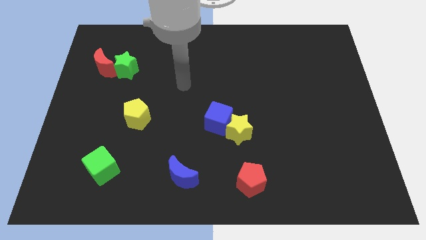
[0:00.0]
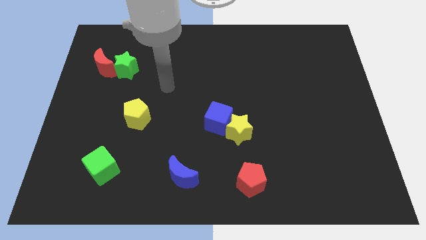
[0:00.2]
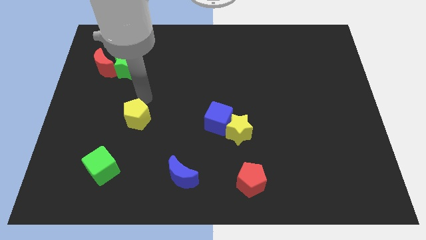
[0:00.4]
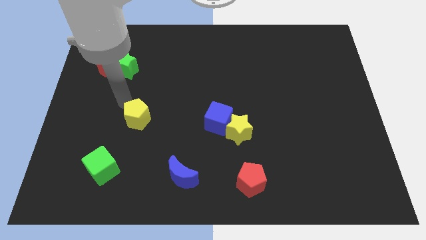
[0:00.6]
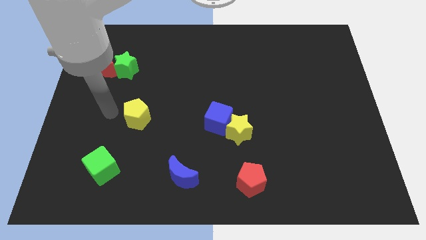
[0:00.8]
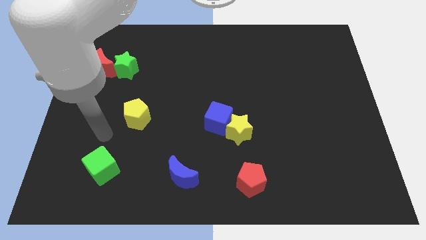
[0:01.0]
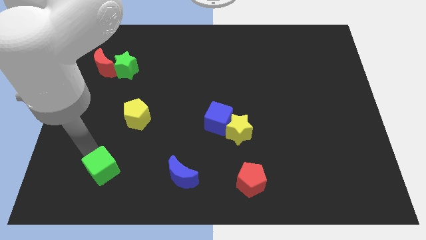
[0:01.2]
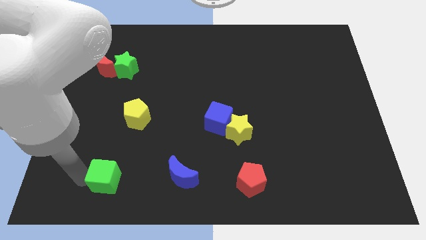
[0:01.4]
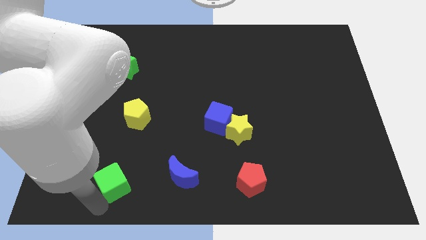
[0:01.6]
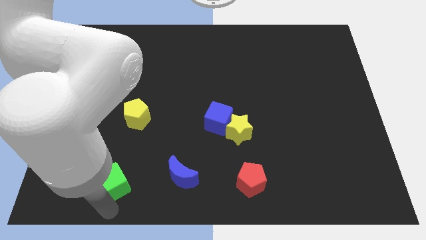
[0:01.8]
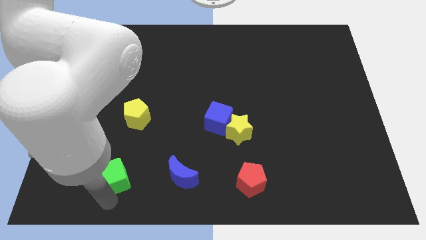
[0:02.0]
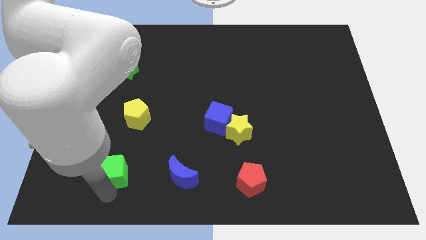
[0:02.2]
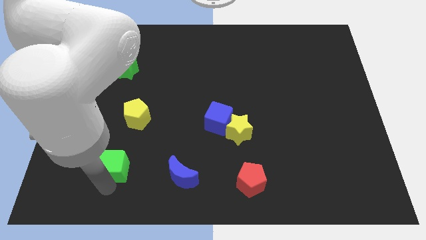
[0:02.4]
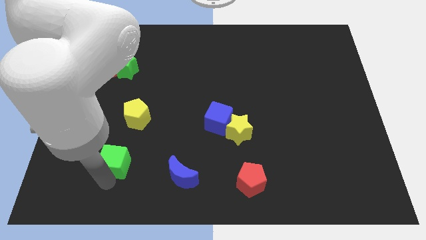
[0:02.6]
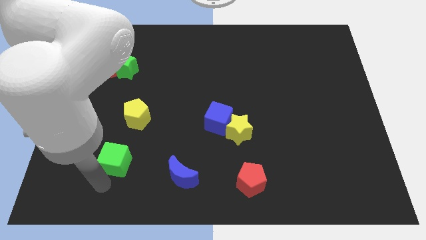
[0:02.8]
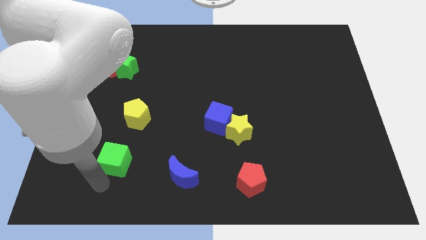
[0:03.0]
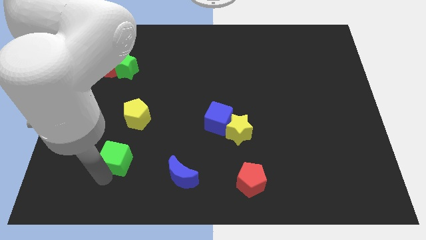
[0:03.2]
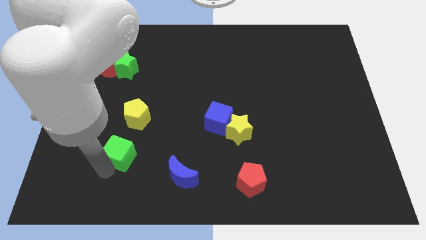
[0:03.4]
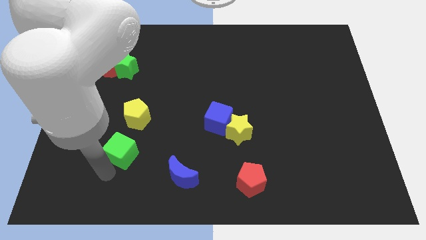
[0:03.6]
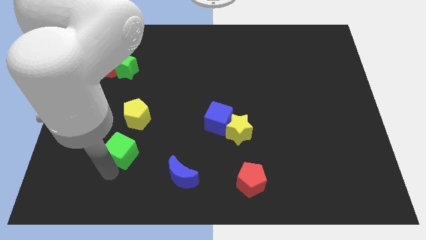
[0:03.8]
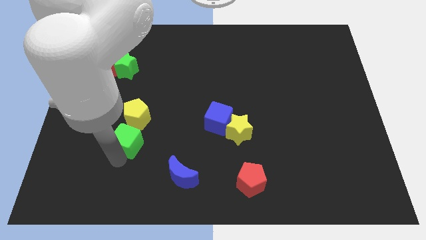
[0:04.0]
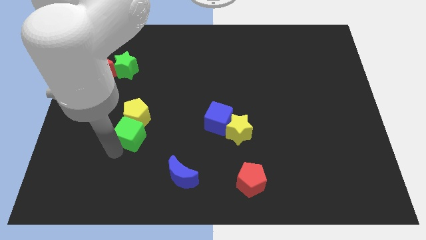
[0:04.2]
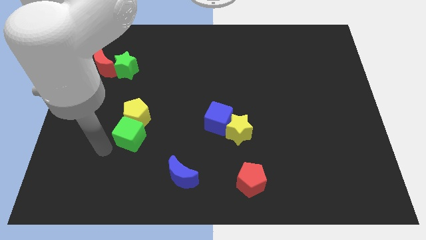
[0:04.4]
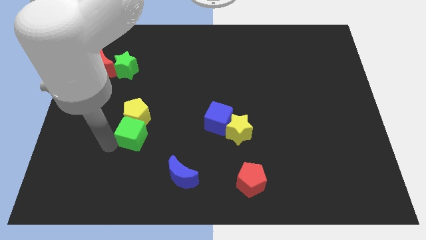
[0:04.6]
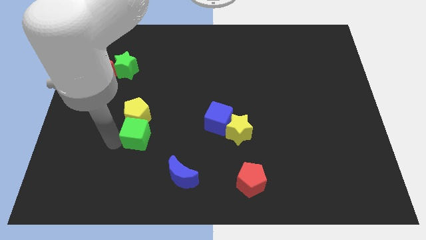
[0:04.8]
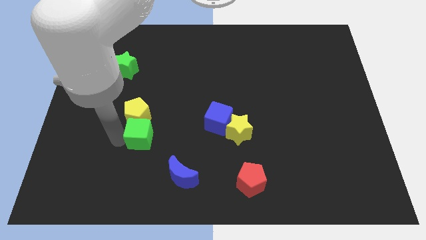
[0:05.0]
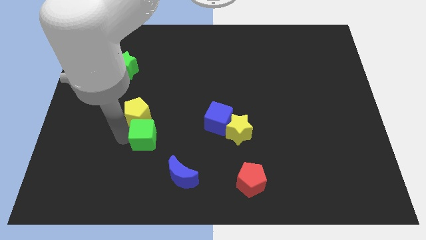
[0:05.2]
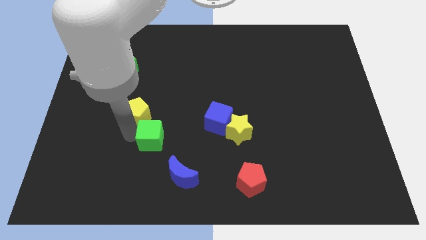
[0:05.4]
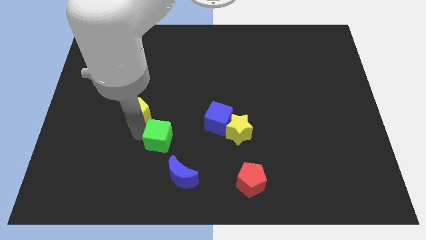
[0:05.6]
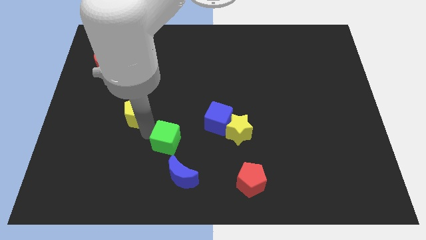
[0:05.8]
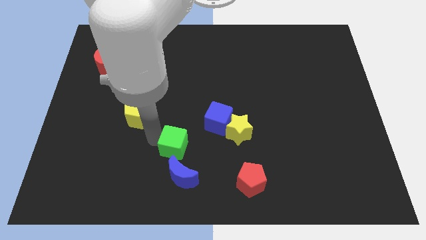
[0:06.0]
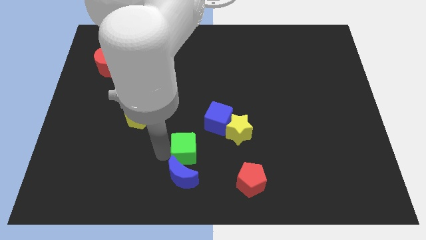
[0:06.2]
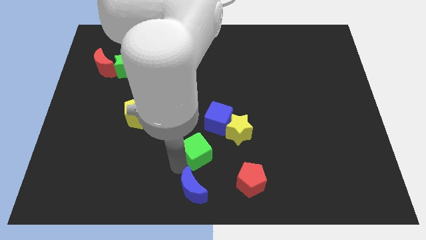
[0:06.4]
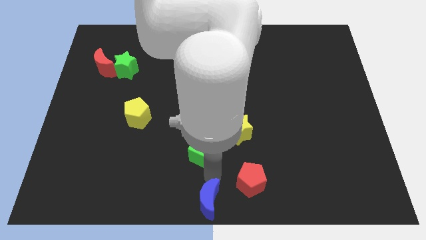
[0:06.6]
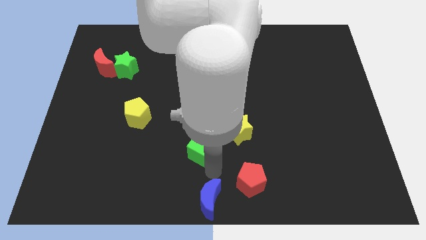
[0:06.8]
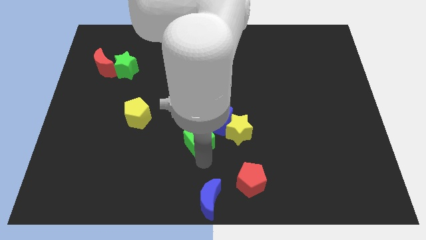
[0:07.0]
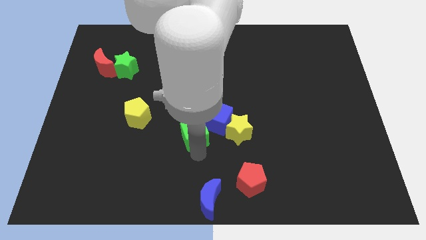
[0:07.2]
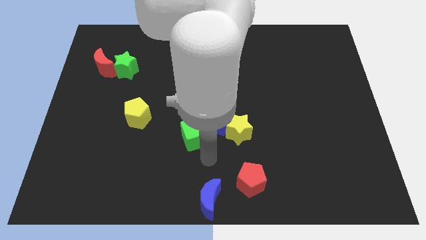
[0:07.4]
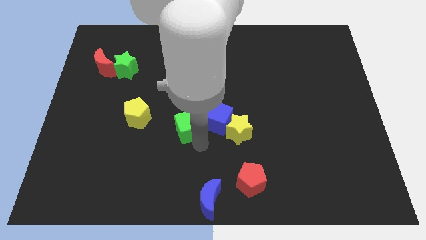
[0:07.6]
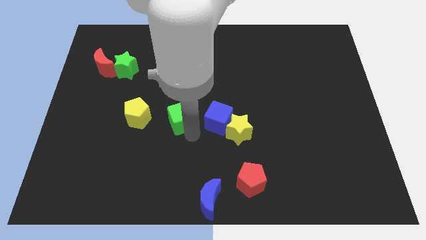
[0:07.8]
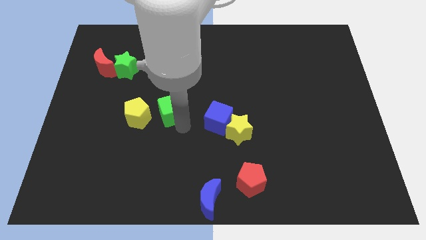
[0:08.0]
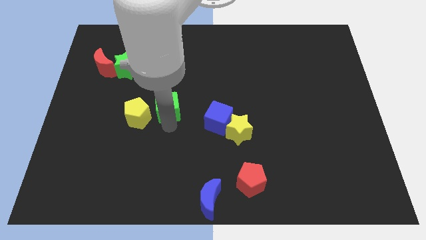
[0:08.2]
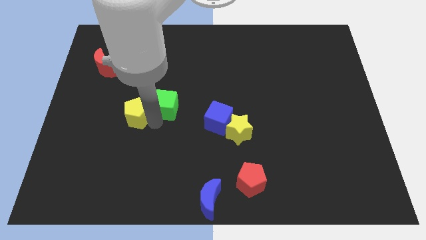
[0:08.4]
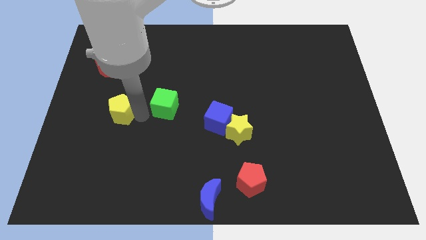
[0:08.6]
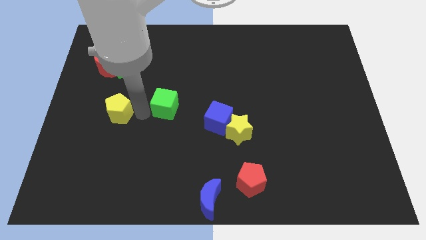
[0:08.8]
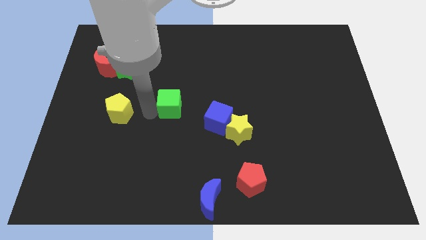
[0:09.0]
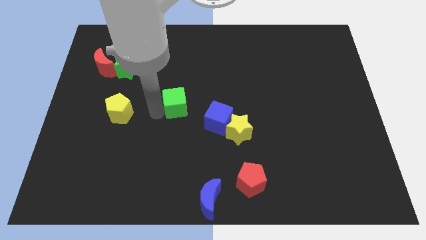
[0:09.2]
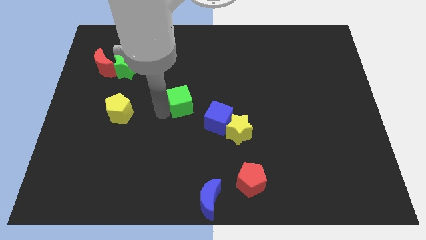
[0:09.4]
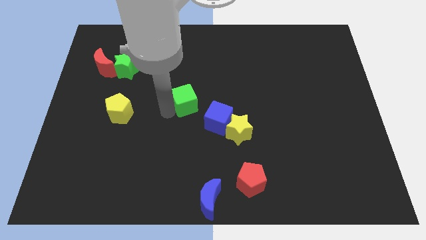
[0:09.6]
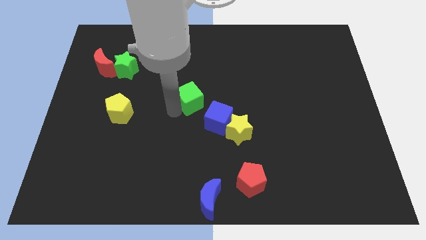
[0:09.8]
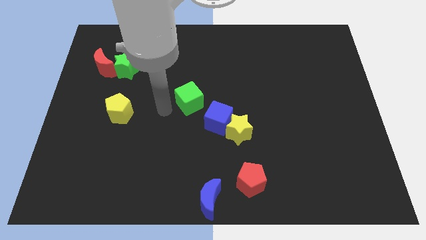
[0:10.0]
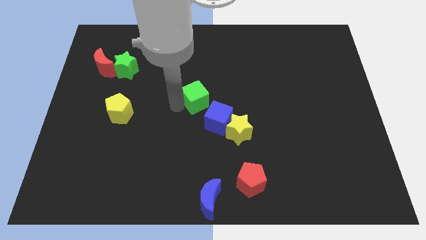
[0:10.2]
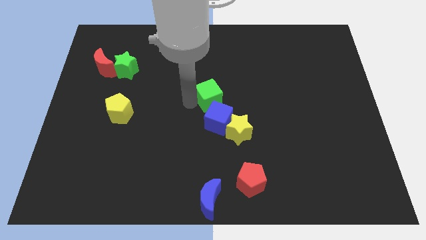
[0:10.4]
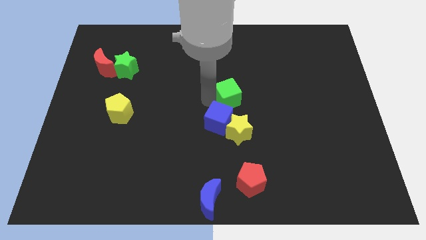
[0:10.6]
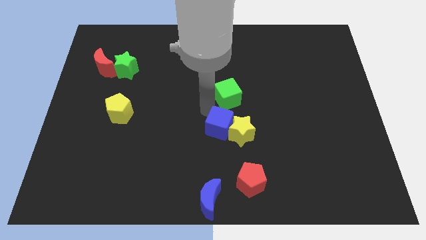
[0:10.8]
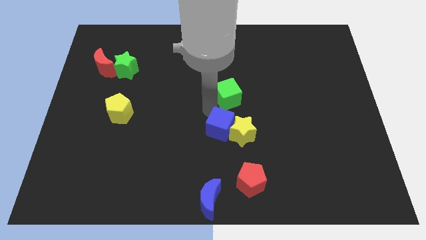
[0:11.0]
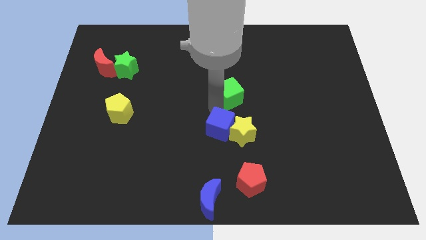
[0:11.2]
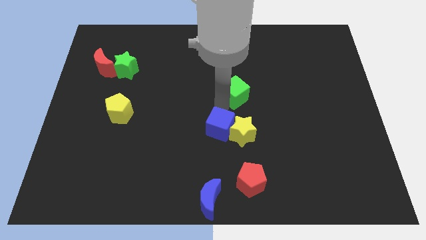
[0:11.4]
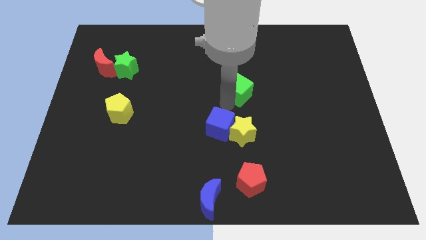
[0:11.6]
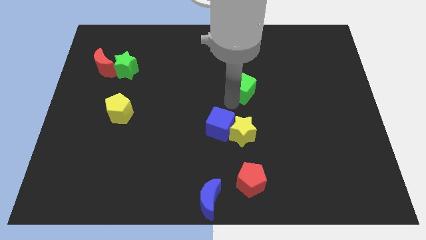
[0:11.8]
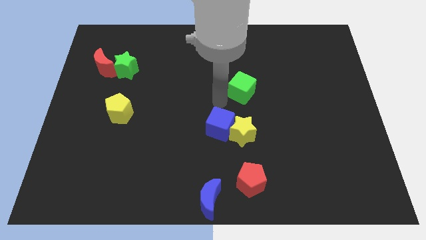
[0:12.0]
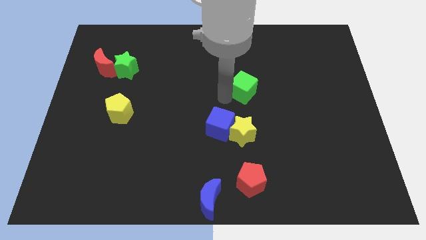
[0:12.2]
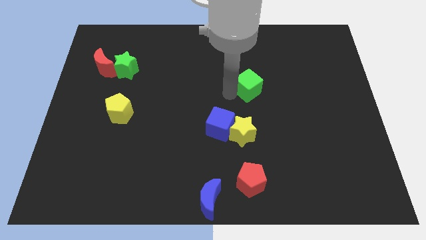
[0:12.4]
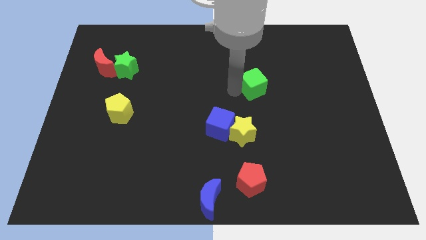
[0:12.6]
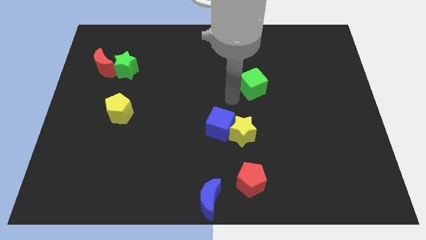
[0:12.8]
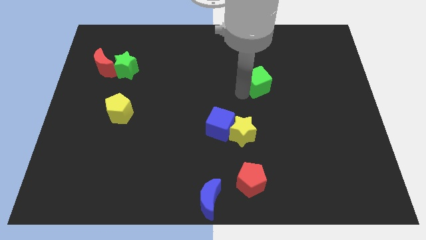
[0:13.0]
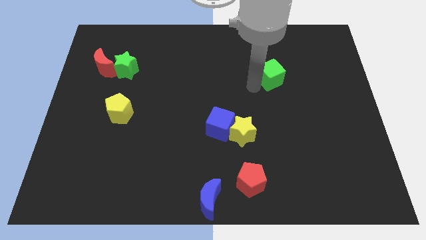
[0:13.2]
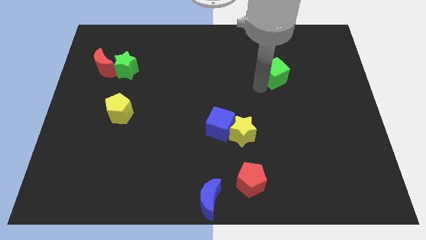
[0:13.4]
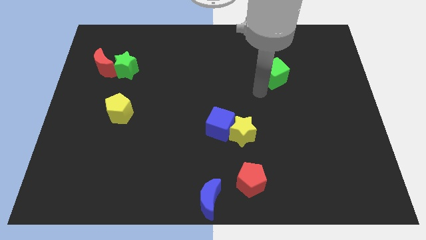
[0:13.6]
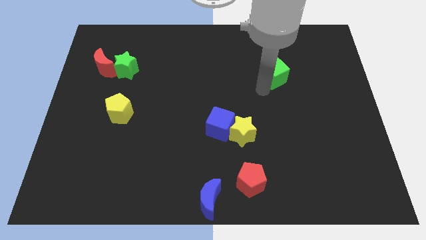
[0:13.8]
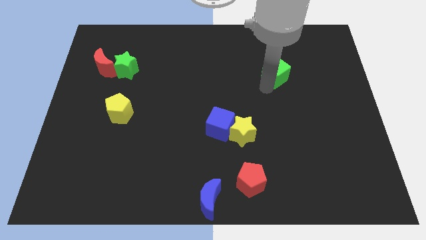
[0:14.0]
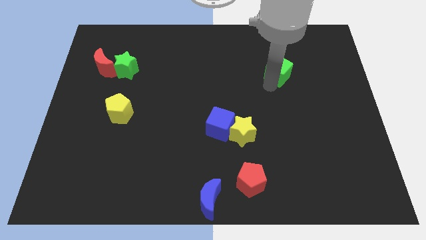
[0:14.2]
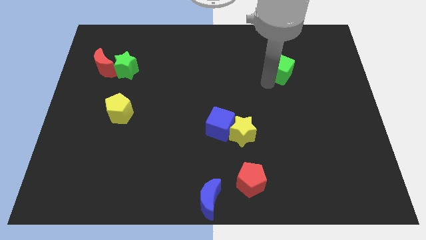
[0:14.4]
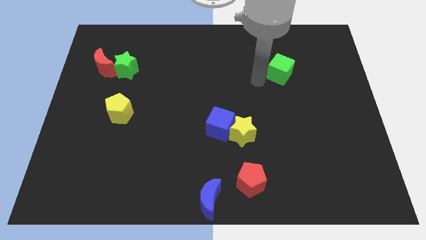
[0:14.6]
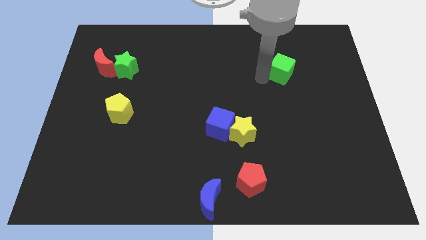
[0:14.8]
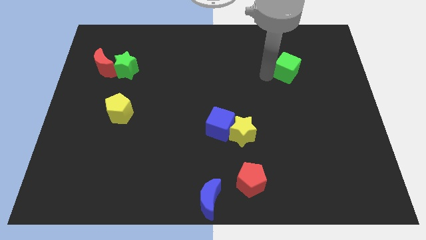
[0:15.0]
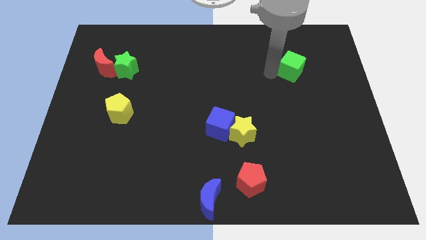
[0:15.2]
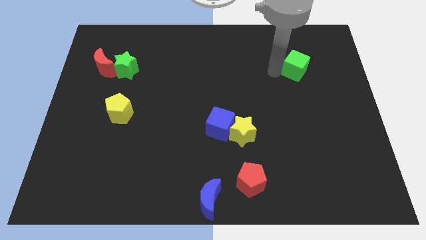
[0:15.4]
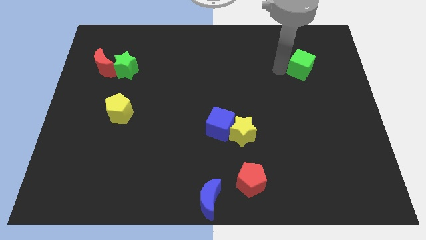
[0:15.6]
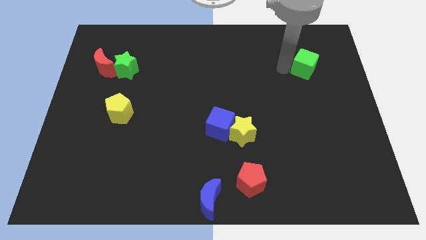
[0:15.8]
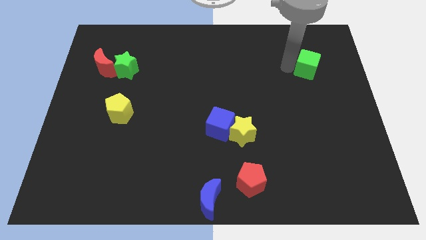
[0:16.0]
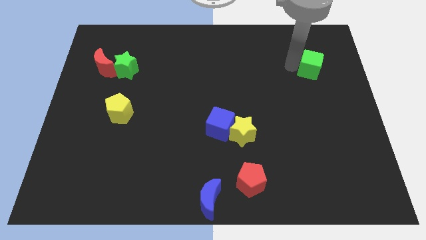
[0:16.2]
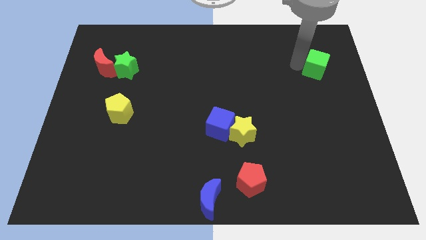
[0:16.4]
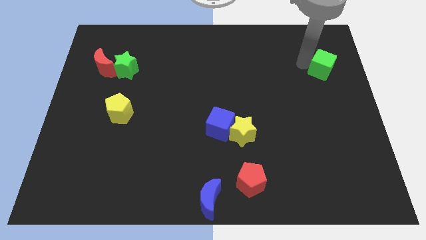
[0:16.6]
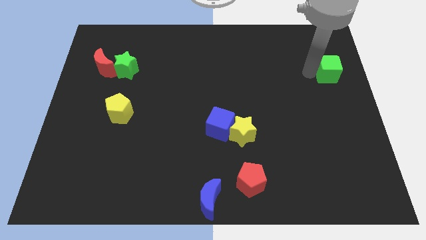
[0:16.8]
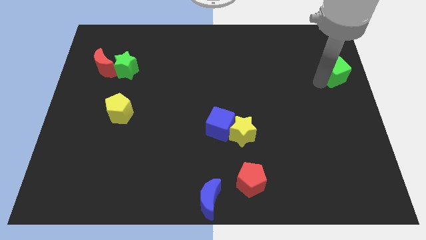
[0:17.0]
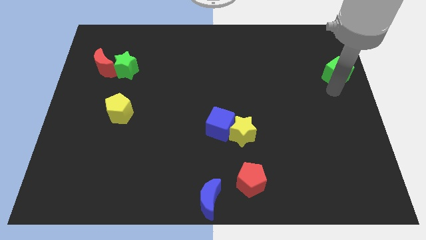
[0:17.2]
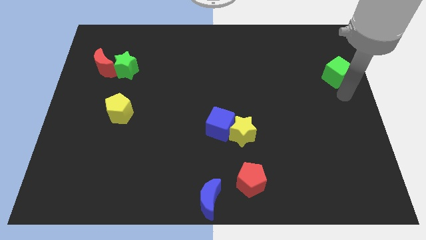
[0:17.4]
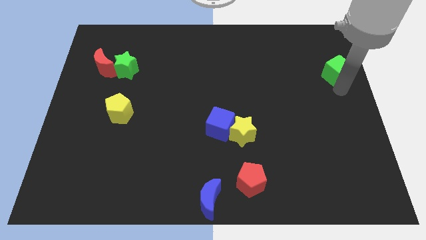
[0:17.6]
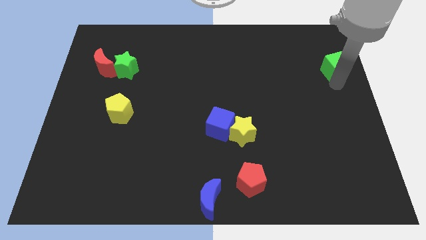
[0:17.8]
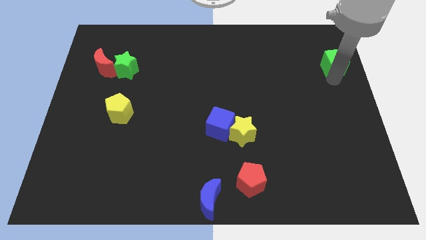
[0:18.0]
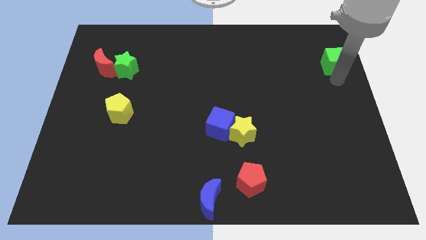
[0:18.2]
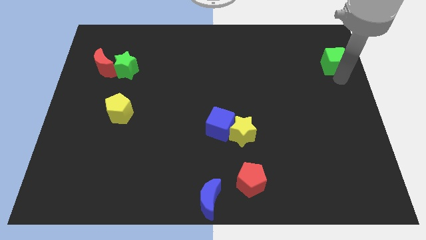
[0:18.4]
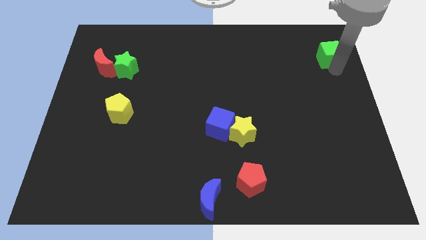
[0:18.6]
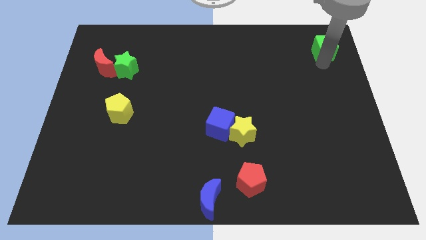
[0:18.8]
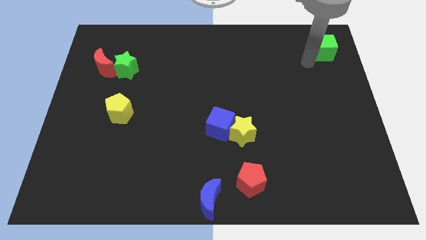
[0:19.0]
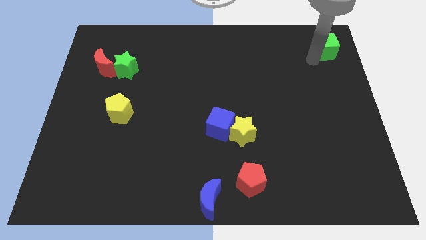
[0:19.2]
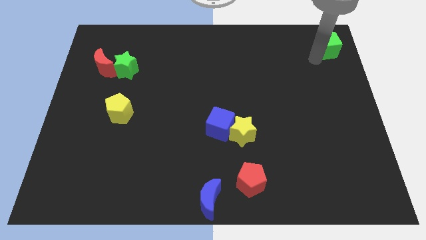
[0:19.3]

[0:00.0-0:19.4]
push the green cube to the top right of the board
